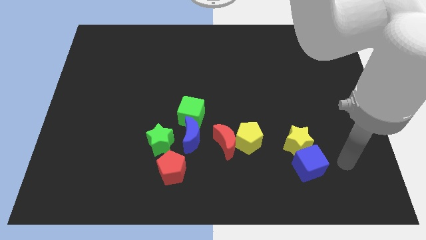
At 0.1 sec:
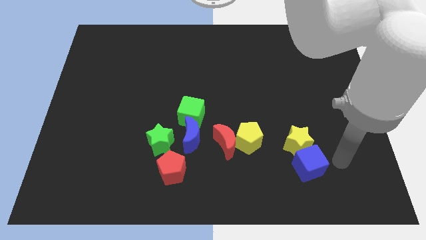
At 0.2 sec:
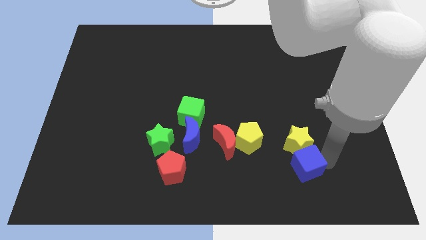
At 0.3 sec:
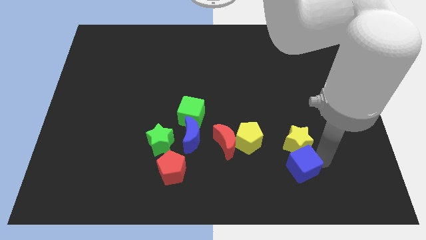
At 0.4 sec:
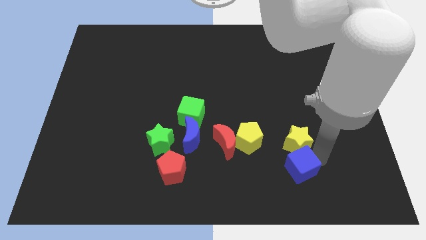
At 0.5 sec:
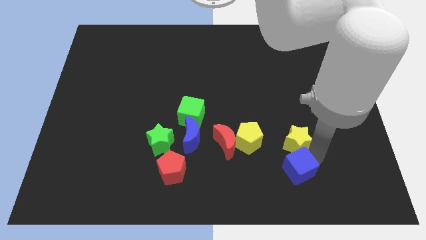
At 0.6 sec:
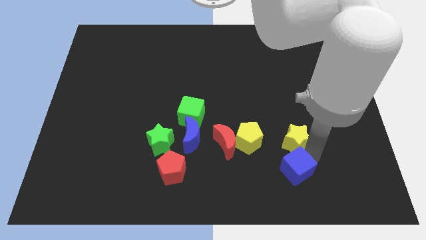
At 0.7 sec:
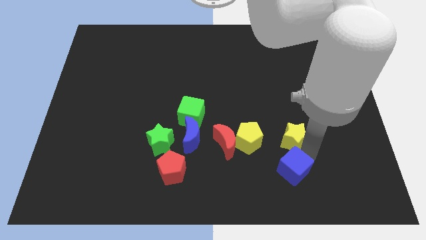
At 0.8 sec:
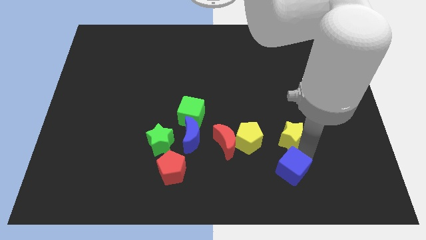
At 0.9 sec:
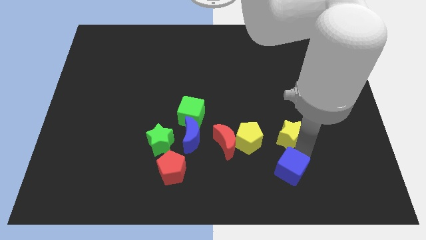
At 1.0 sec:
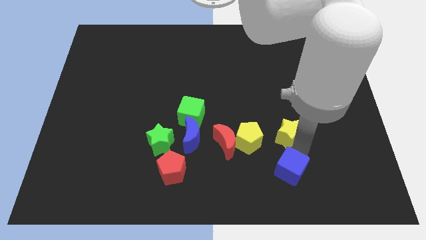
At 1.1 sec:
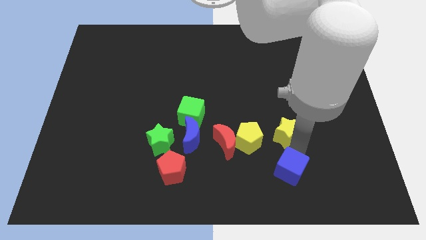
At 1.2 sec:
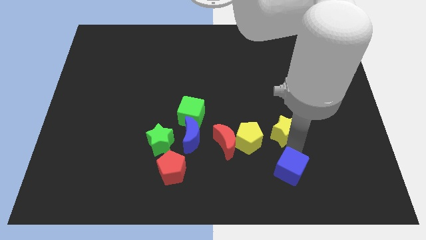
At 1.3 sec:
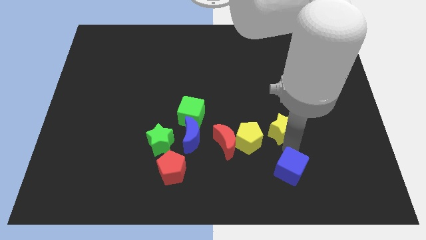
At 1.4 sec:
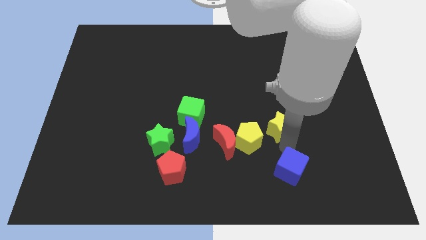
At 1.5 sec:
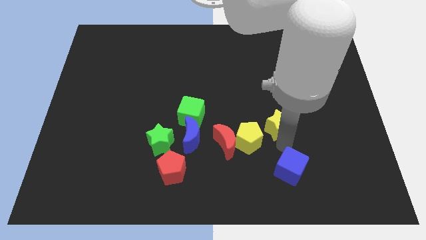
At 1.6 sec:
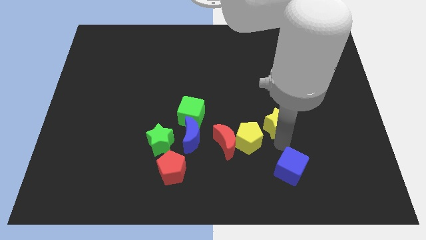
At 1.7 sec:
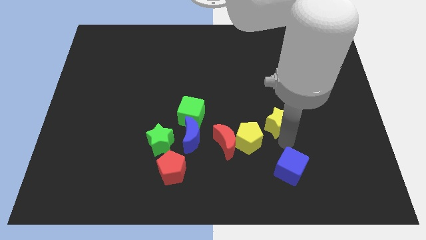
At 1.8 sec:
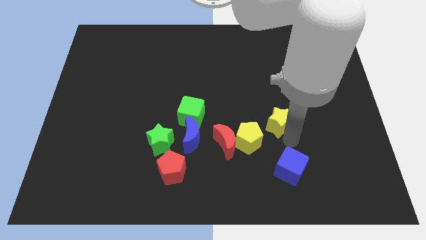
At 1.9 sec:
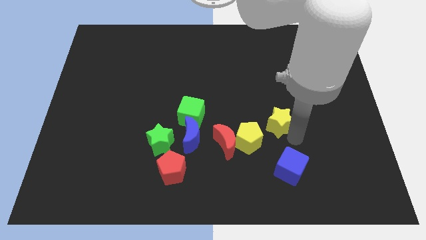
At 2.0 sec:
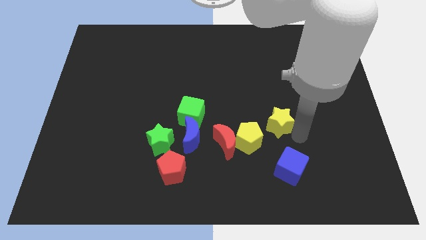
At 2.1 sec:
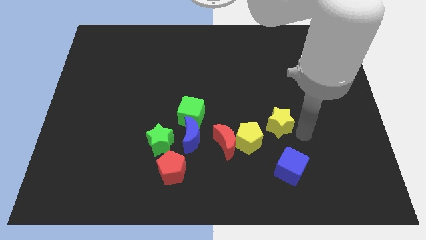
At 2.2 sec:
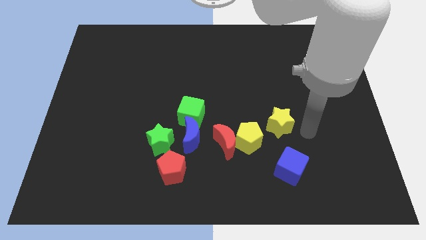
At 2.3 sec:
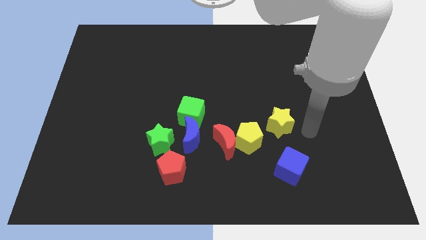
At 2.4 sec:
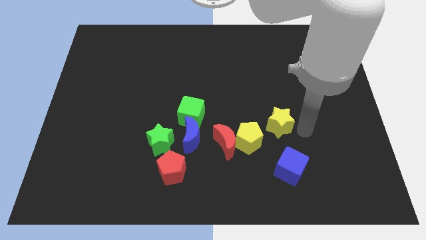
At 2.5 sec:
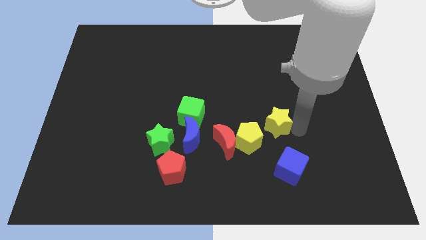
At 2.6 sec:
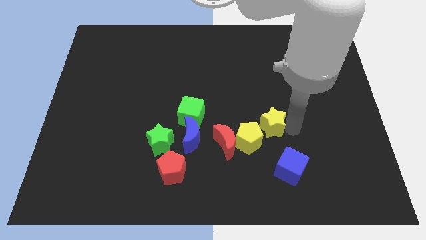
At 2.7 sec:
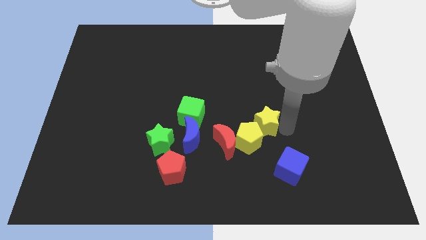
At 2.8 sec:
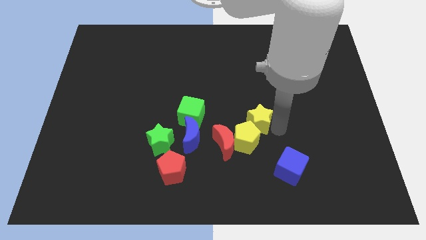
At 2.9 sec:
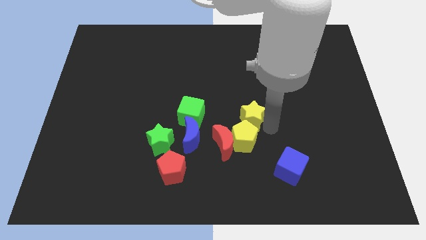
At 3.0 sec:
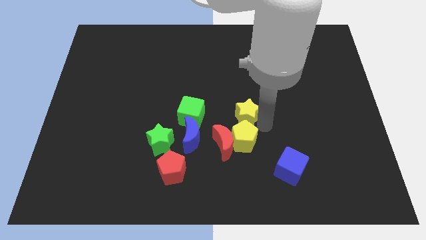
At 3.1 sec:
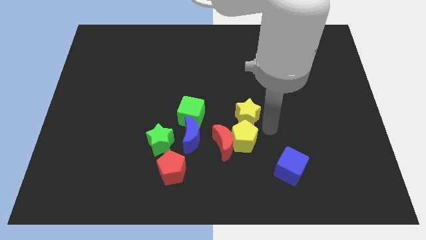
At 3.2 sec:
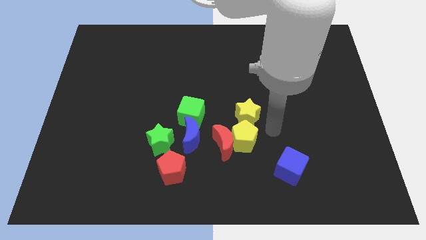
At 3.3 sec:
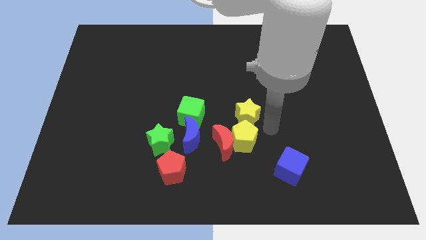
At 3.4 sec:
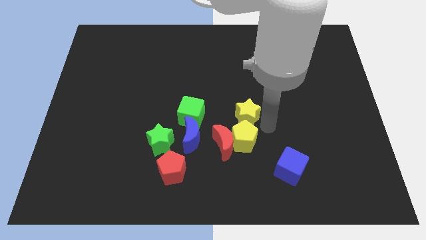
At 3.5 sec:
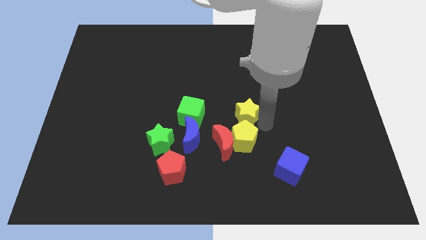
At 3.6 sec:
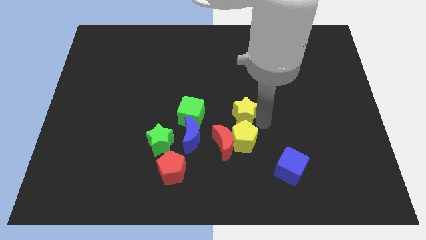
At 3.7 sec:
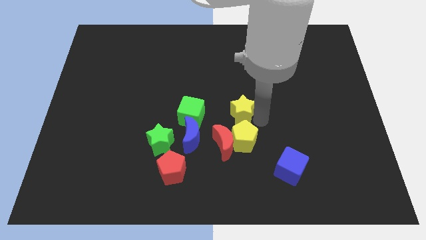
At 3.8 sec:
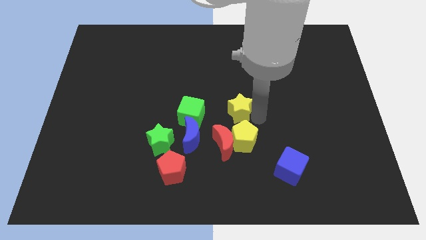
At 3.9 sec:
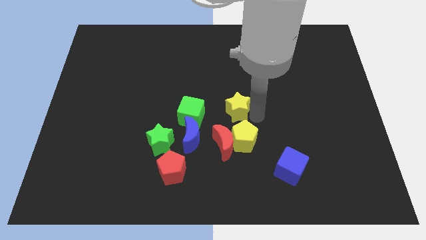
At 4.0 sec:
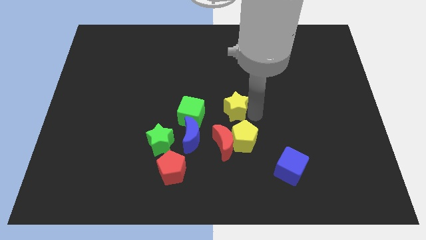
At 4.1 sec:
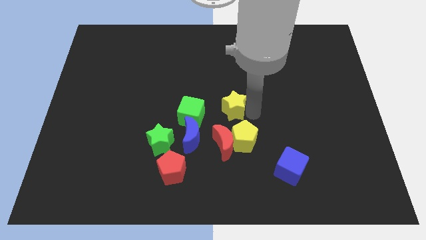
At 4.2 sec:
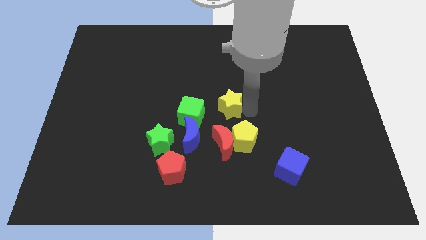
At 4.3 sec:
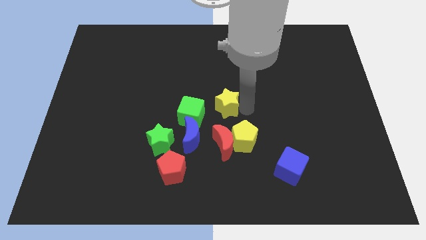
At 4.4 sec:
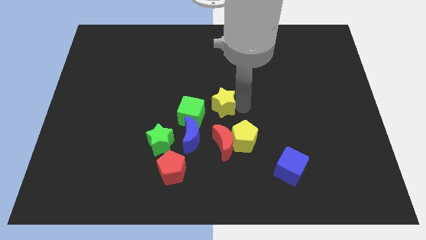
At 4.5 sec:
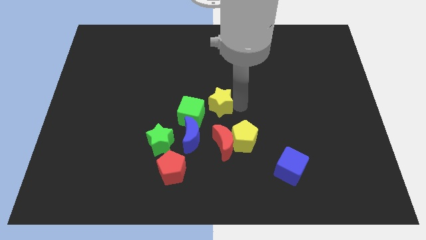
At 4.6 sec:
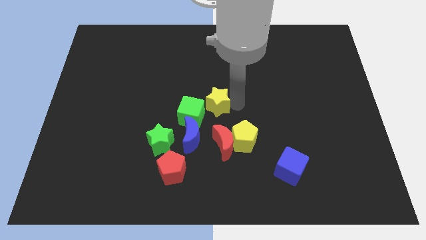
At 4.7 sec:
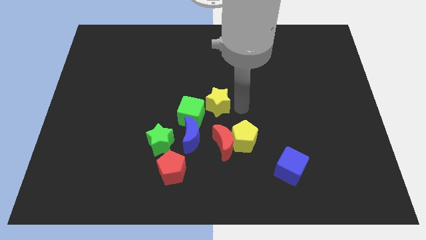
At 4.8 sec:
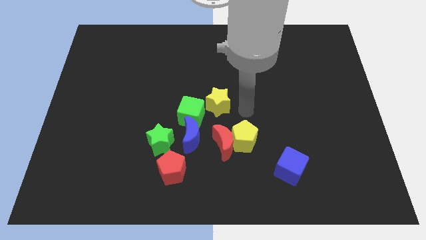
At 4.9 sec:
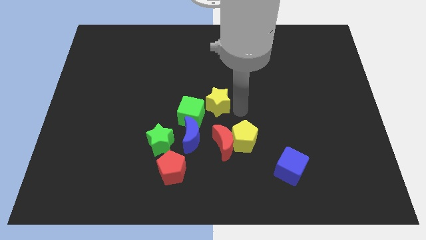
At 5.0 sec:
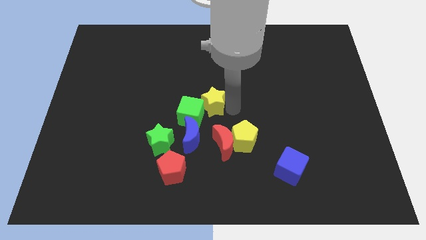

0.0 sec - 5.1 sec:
move the yellow star to the top of the blue moon

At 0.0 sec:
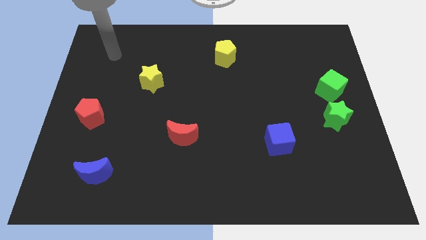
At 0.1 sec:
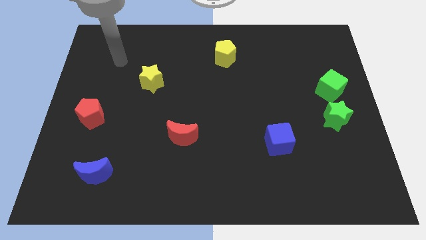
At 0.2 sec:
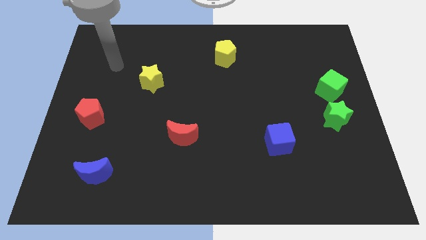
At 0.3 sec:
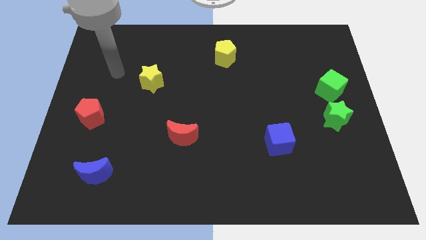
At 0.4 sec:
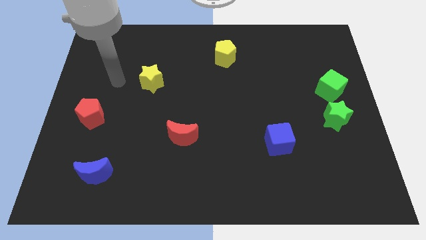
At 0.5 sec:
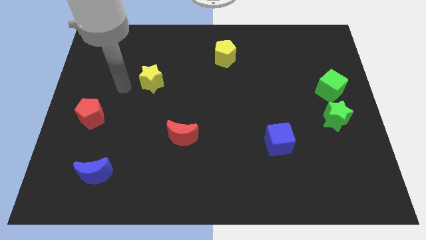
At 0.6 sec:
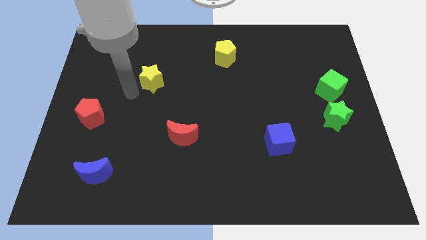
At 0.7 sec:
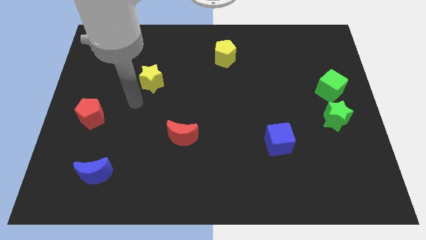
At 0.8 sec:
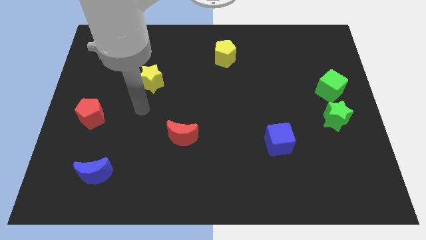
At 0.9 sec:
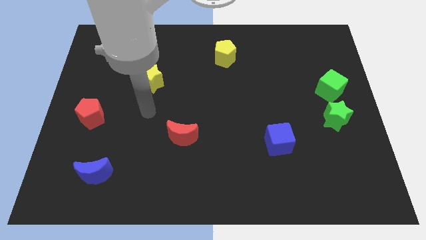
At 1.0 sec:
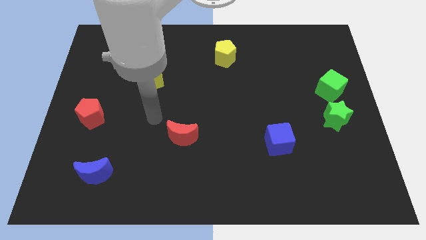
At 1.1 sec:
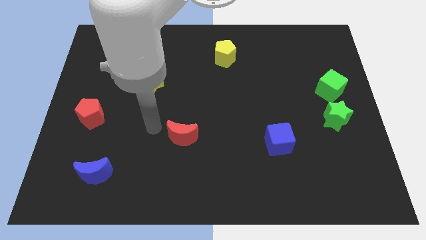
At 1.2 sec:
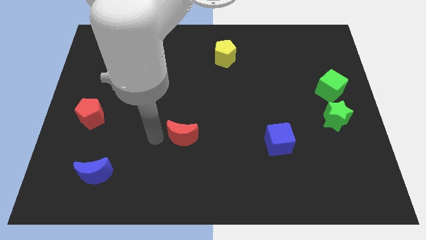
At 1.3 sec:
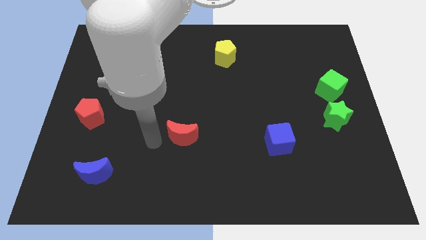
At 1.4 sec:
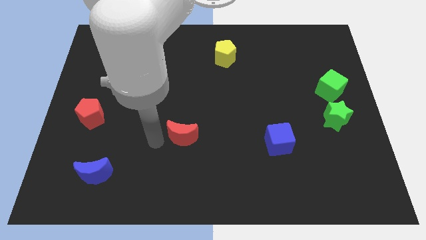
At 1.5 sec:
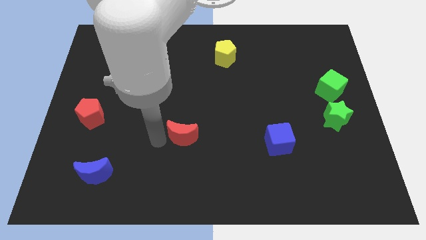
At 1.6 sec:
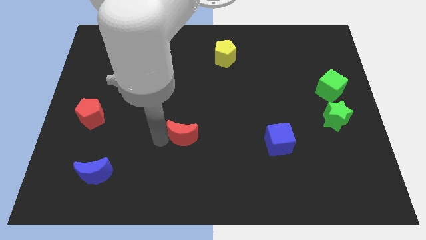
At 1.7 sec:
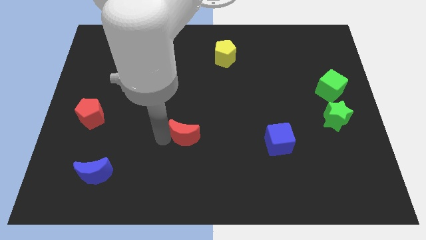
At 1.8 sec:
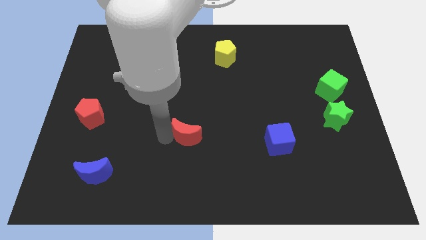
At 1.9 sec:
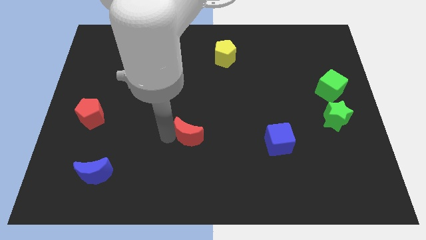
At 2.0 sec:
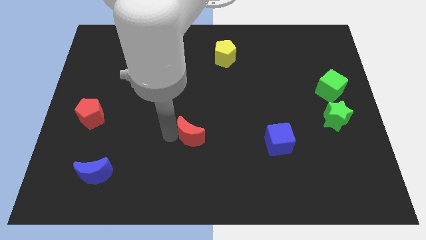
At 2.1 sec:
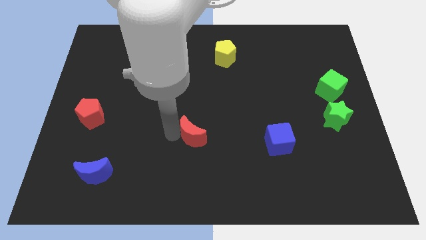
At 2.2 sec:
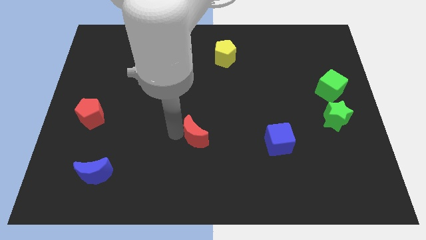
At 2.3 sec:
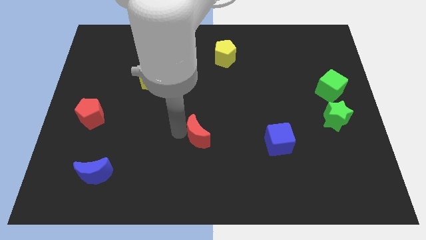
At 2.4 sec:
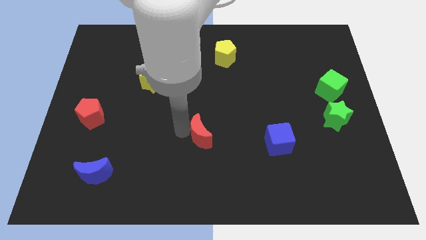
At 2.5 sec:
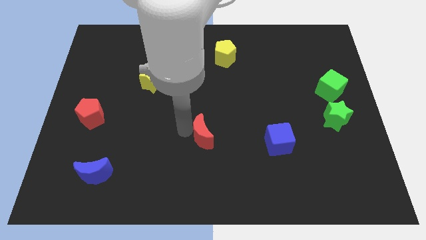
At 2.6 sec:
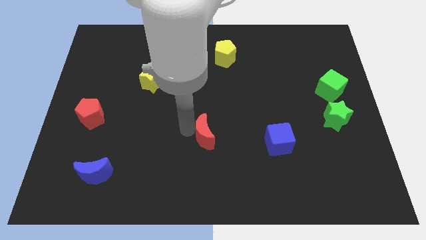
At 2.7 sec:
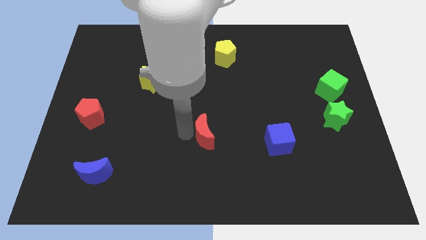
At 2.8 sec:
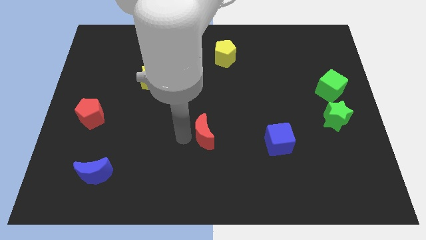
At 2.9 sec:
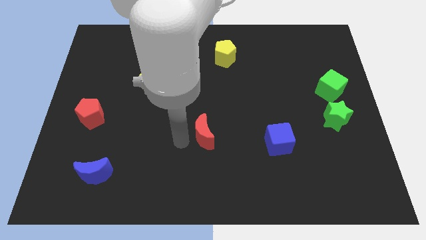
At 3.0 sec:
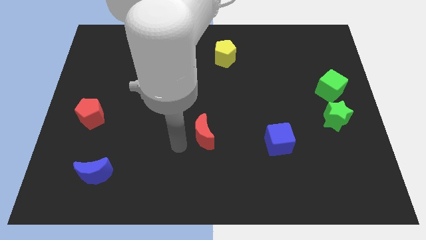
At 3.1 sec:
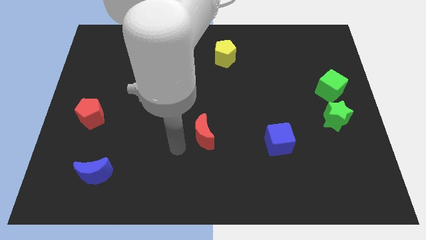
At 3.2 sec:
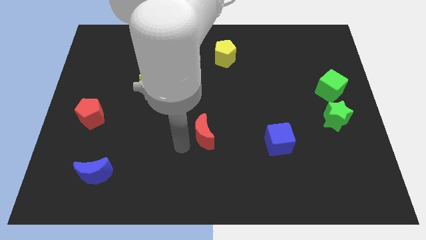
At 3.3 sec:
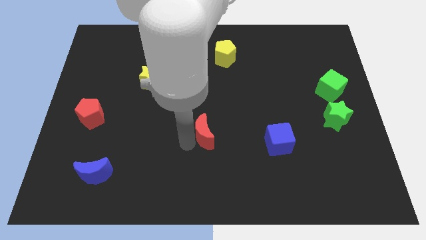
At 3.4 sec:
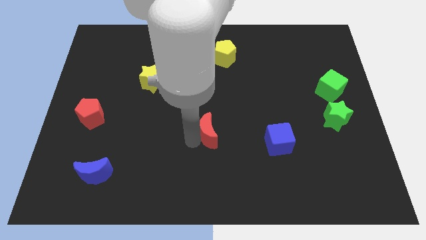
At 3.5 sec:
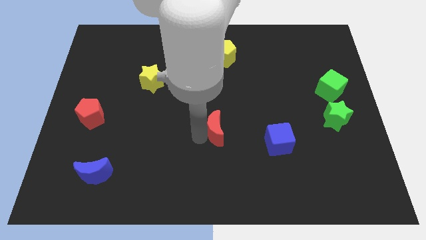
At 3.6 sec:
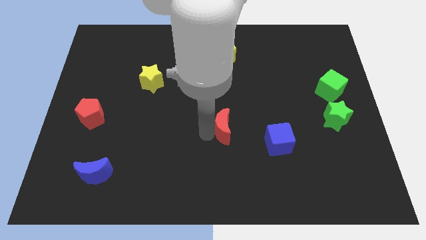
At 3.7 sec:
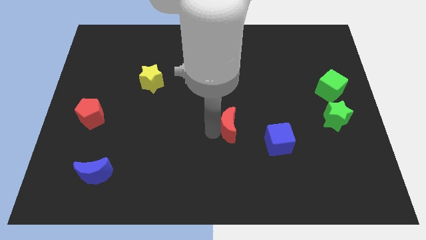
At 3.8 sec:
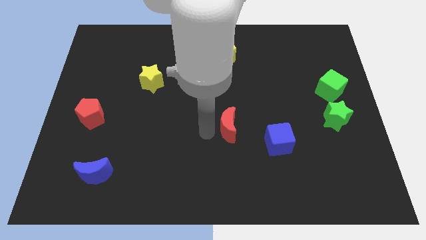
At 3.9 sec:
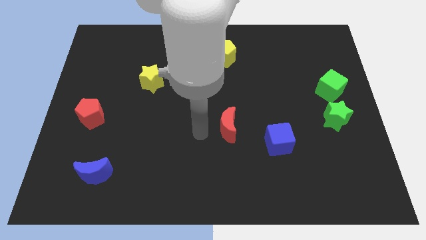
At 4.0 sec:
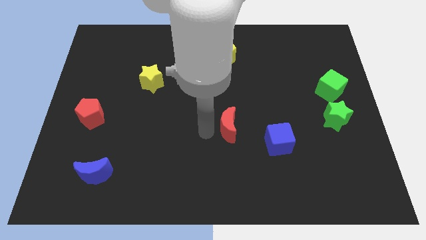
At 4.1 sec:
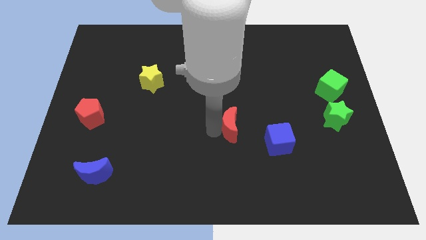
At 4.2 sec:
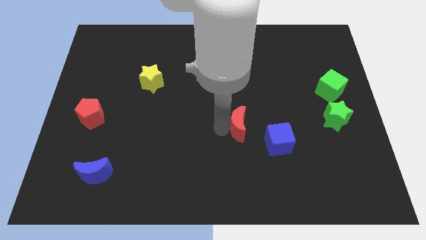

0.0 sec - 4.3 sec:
move the red moon diagonally up and to the left of the blue cube
